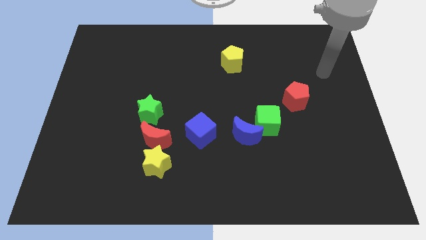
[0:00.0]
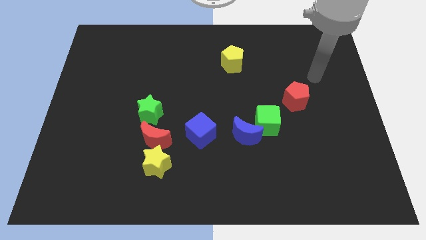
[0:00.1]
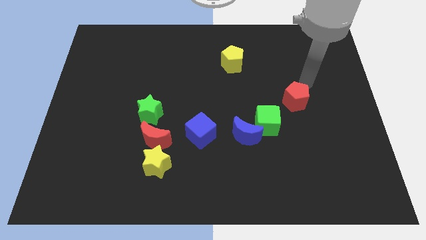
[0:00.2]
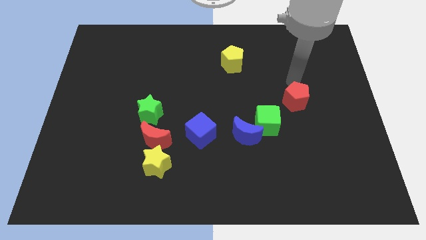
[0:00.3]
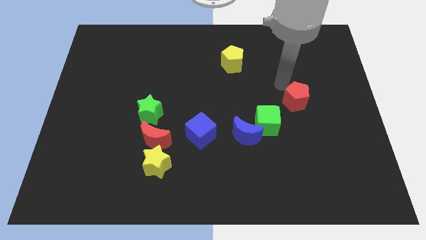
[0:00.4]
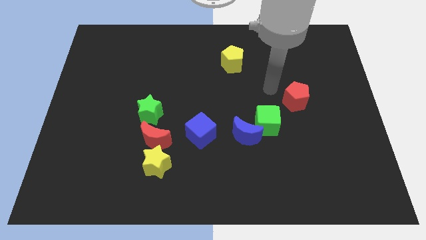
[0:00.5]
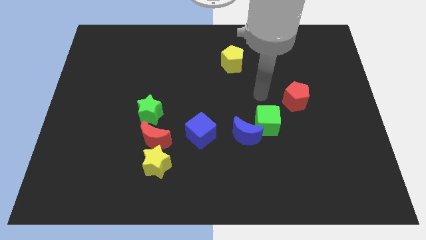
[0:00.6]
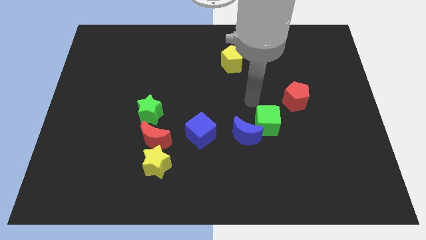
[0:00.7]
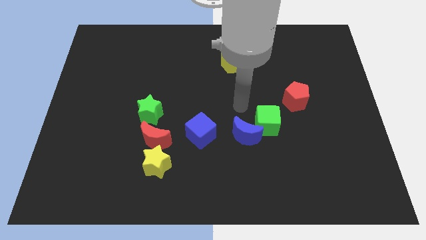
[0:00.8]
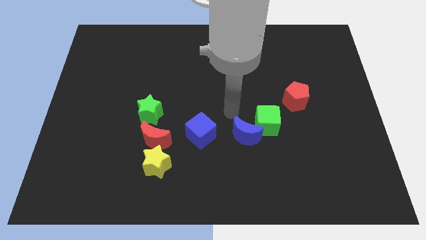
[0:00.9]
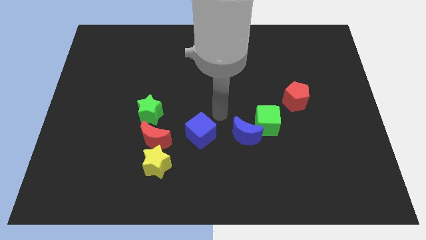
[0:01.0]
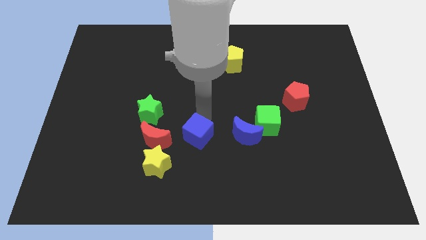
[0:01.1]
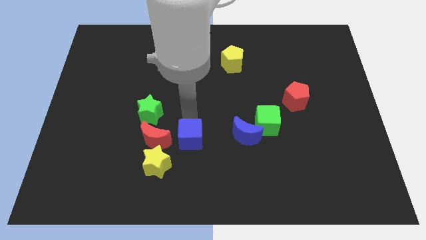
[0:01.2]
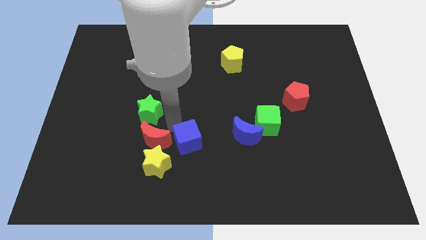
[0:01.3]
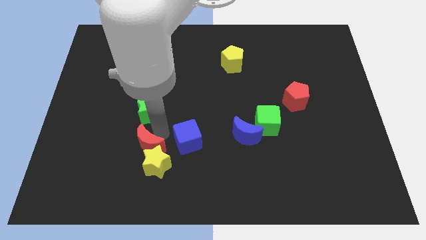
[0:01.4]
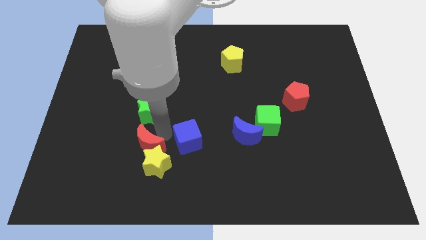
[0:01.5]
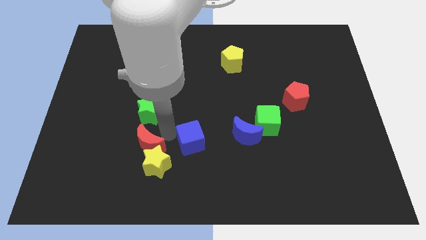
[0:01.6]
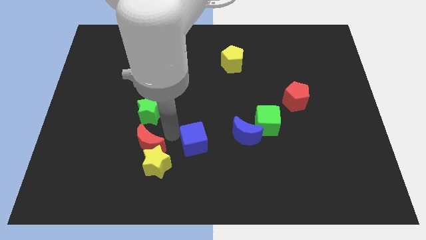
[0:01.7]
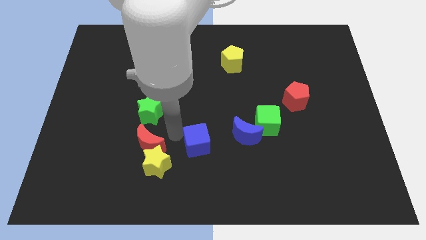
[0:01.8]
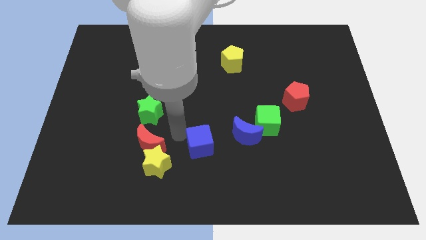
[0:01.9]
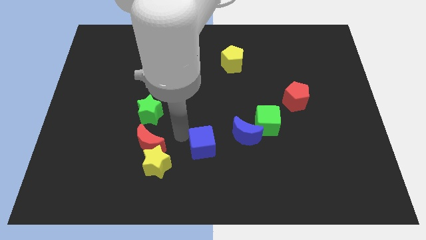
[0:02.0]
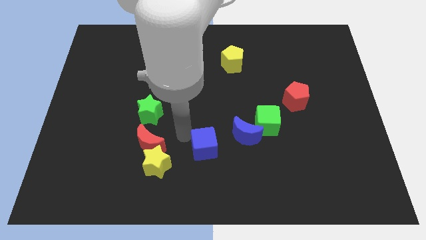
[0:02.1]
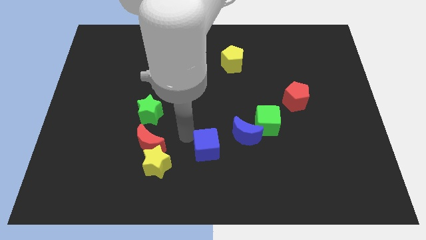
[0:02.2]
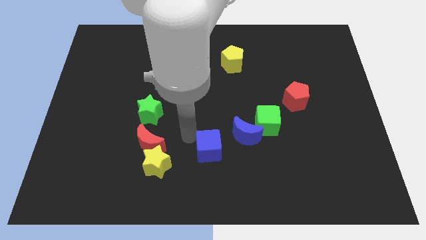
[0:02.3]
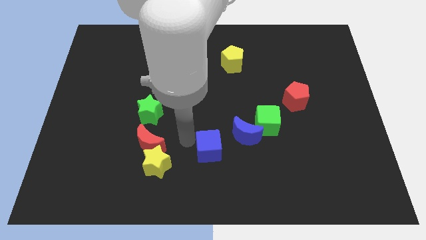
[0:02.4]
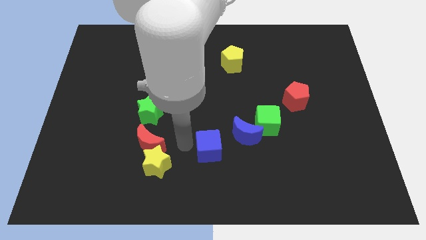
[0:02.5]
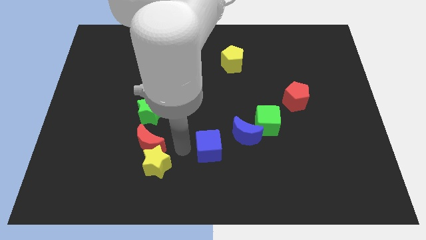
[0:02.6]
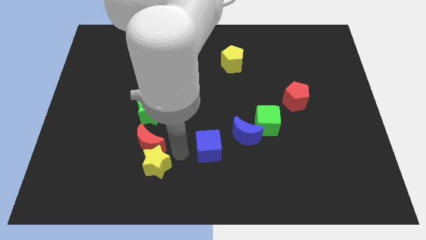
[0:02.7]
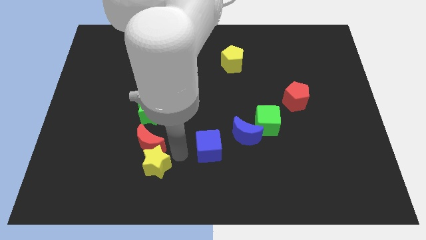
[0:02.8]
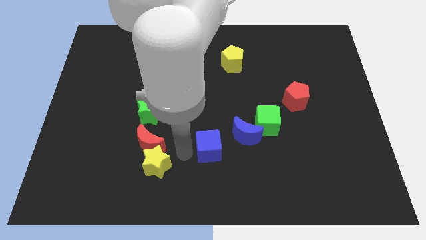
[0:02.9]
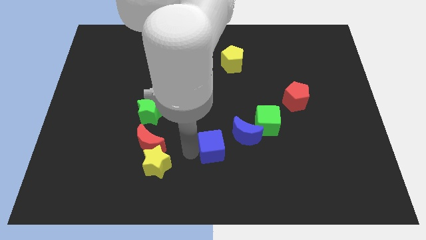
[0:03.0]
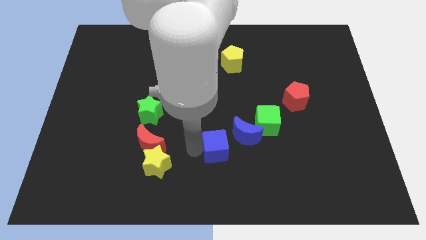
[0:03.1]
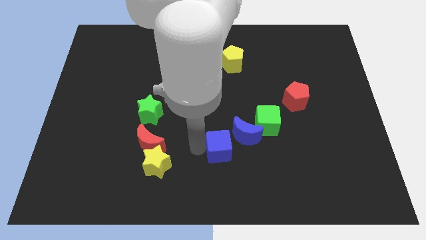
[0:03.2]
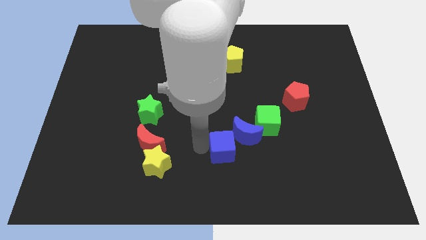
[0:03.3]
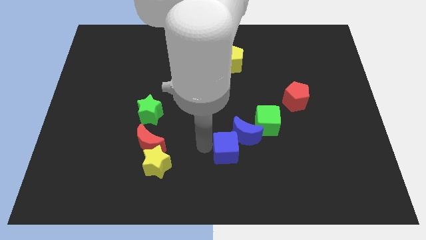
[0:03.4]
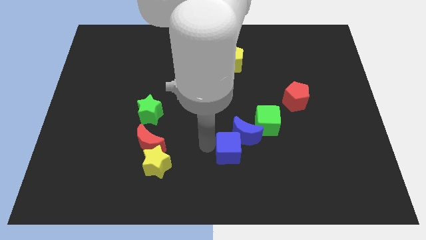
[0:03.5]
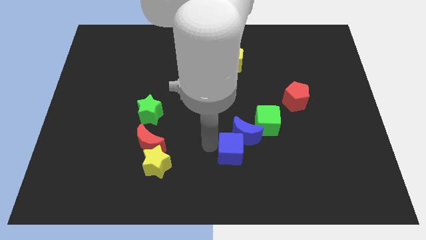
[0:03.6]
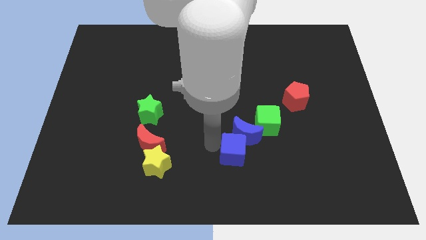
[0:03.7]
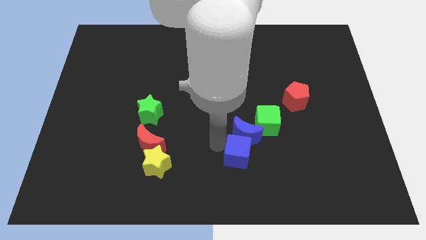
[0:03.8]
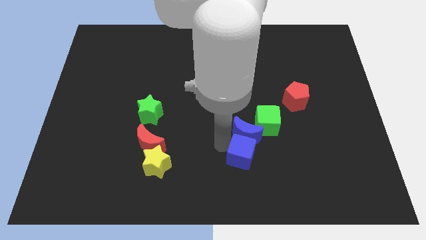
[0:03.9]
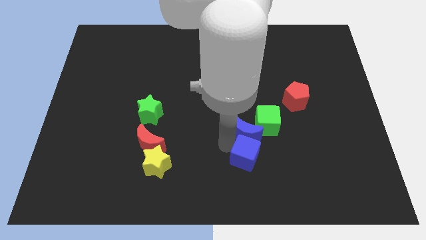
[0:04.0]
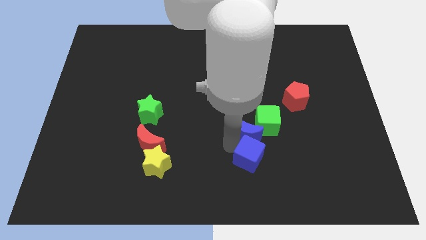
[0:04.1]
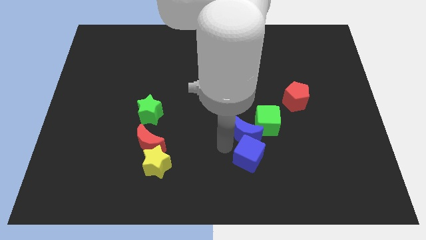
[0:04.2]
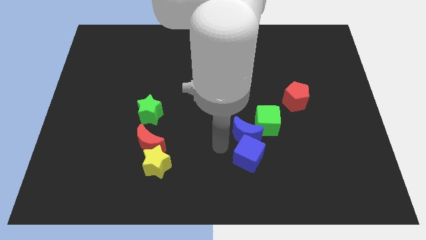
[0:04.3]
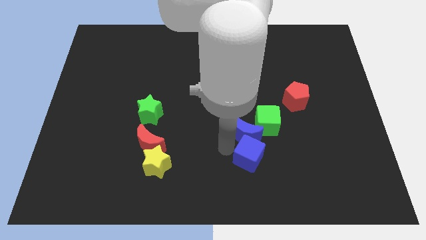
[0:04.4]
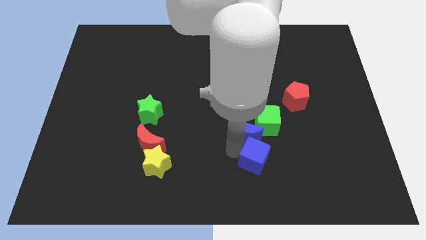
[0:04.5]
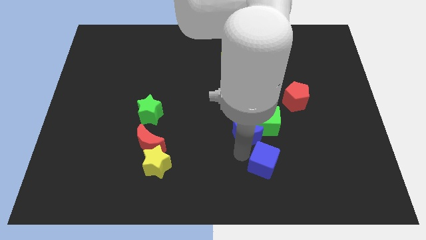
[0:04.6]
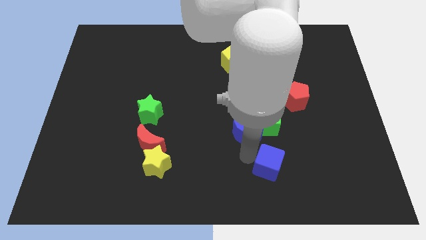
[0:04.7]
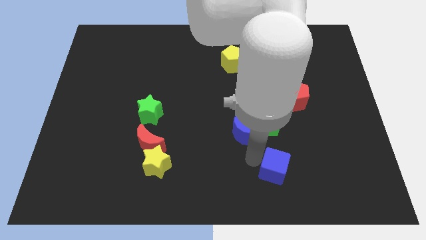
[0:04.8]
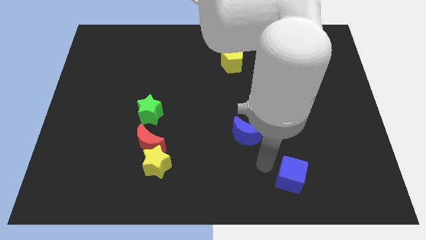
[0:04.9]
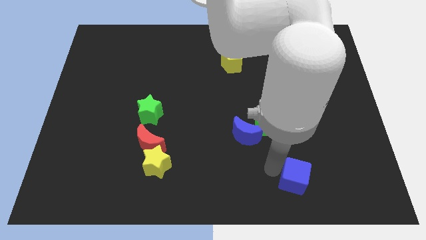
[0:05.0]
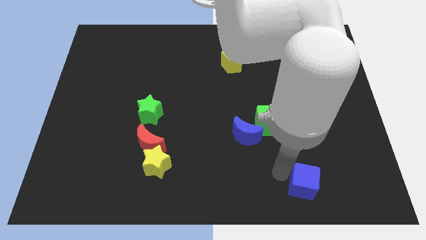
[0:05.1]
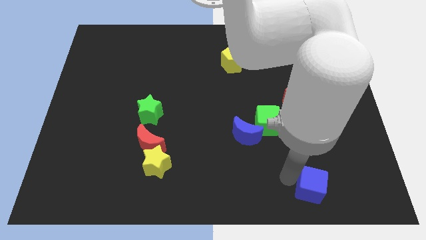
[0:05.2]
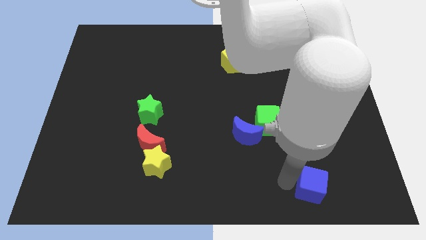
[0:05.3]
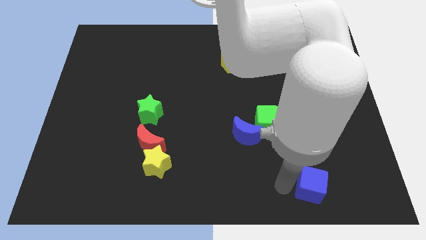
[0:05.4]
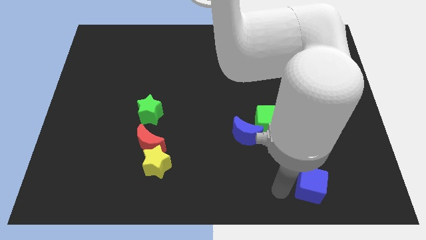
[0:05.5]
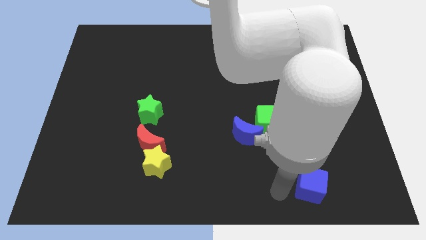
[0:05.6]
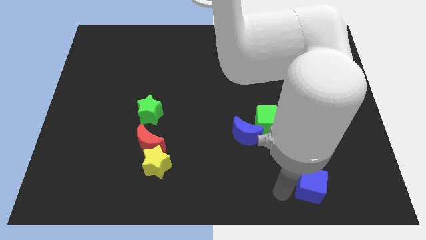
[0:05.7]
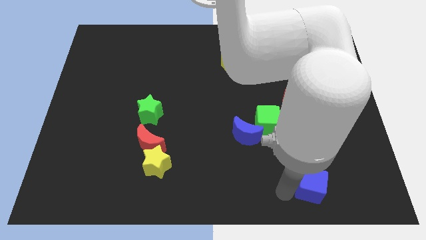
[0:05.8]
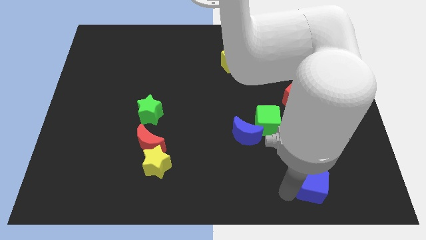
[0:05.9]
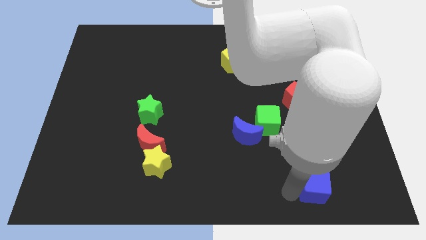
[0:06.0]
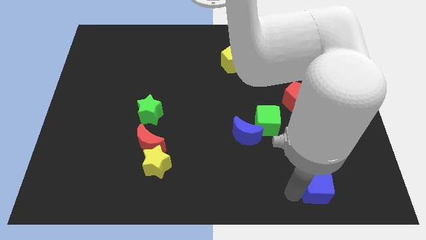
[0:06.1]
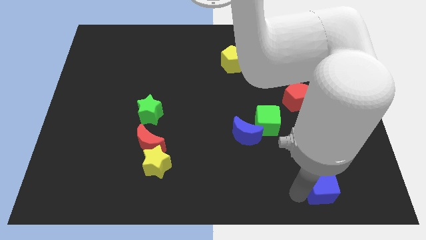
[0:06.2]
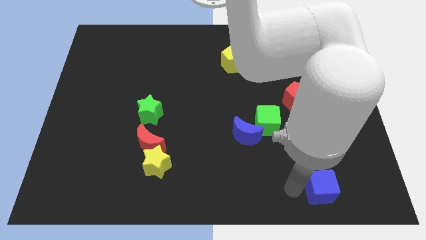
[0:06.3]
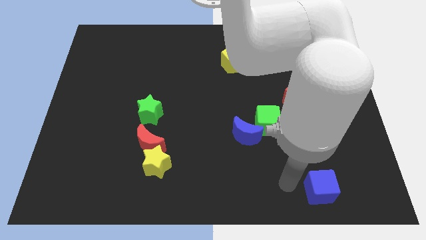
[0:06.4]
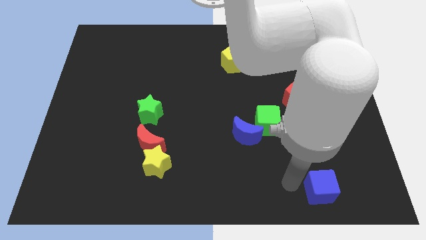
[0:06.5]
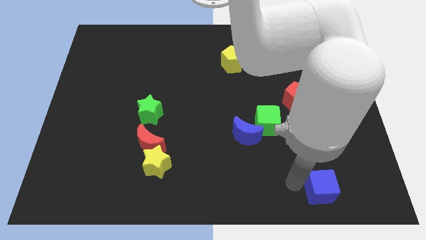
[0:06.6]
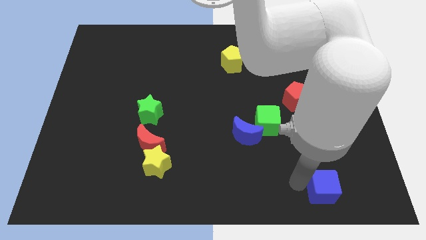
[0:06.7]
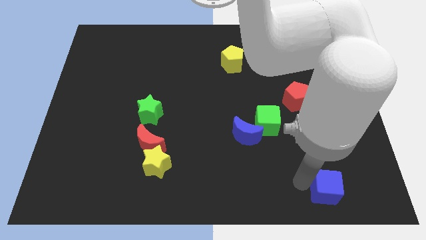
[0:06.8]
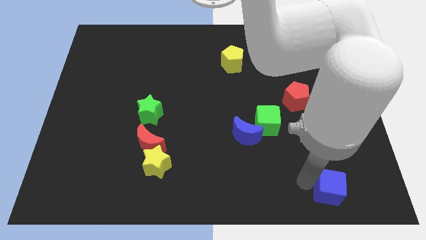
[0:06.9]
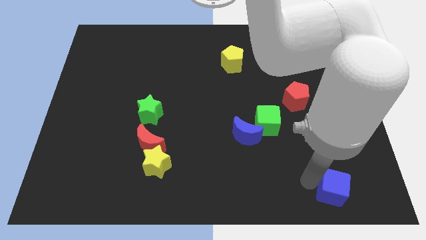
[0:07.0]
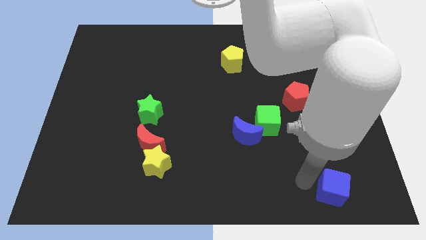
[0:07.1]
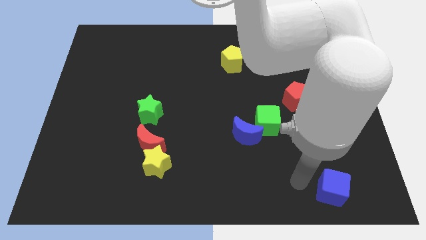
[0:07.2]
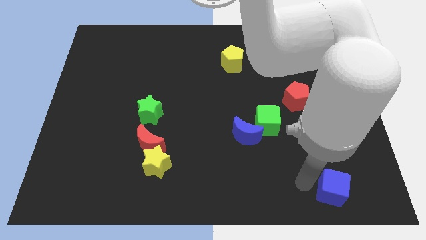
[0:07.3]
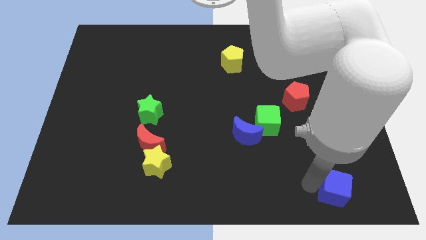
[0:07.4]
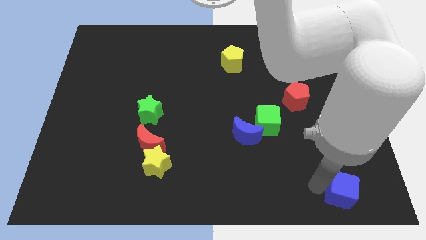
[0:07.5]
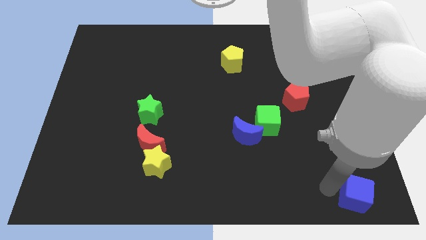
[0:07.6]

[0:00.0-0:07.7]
put the blue cube to the lower right corner
